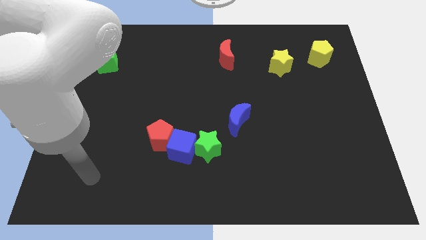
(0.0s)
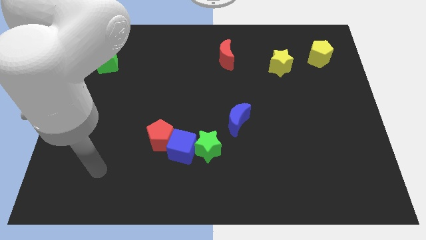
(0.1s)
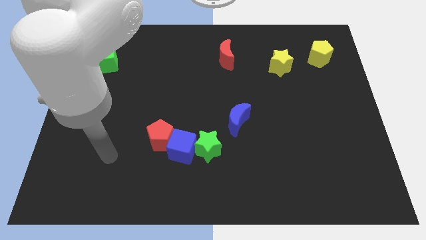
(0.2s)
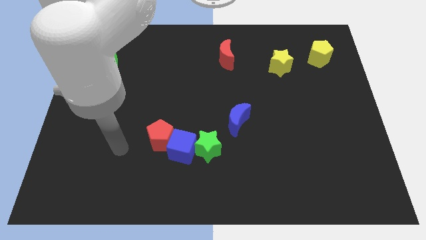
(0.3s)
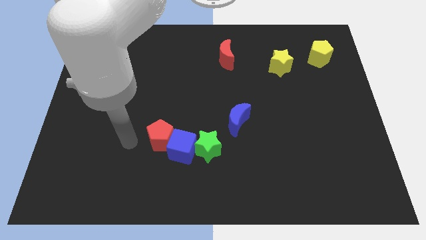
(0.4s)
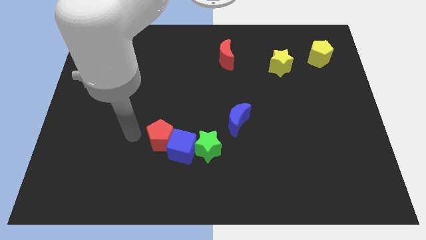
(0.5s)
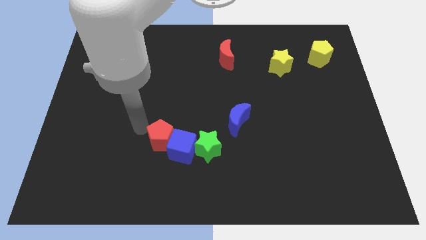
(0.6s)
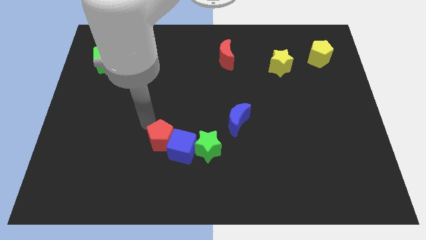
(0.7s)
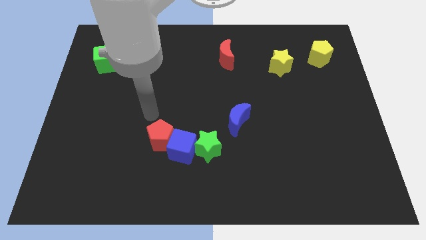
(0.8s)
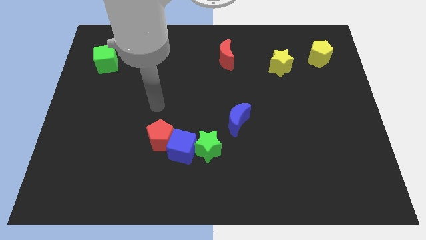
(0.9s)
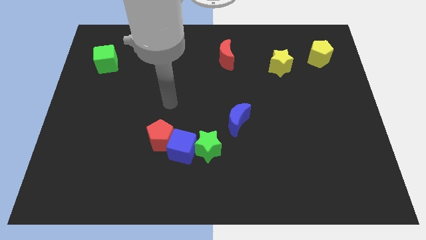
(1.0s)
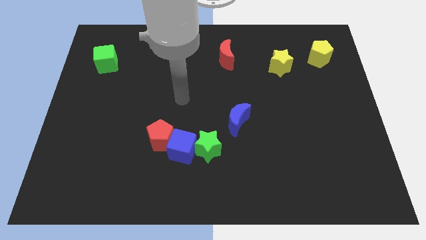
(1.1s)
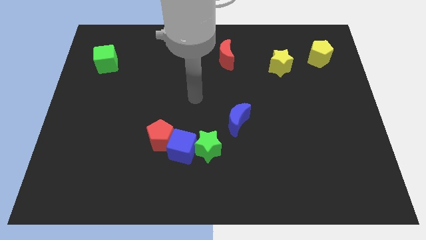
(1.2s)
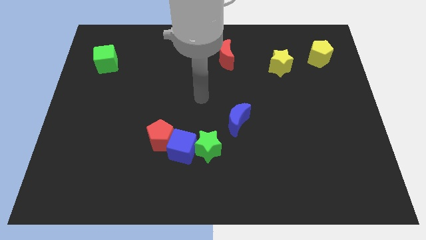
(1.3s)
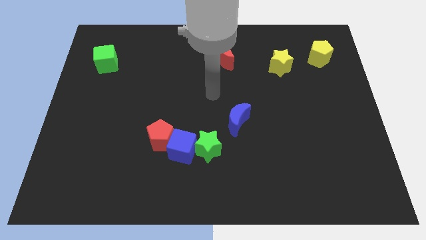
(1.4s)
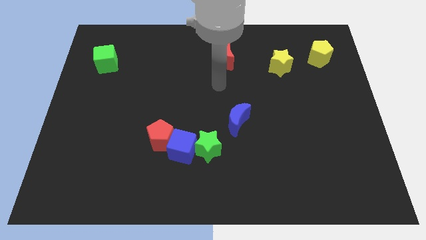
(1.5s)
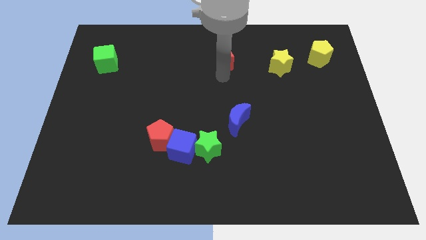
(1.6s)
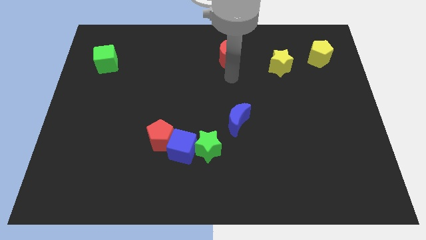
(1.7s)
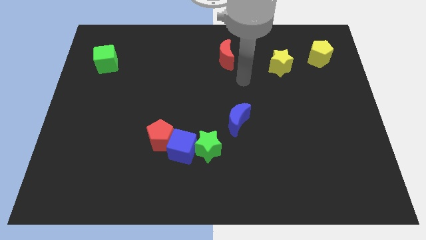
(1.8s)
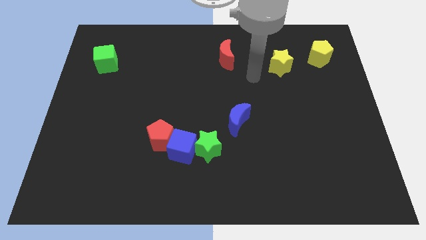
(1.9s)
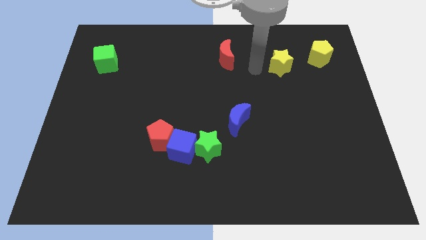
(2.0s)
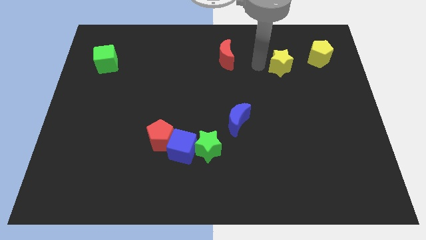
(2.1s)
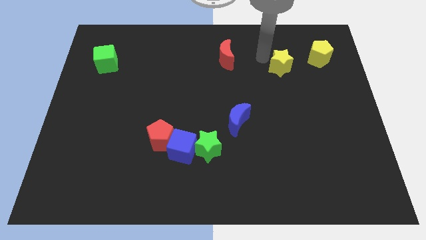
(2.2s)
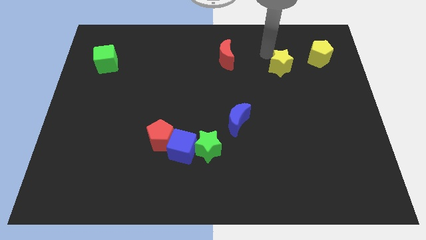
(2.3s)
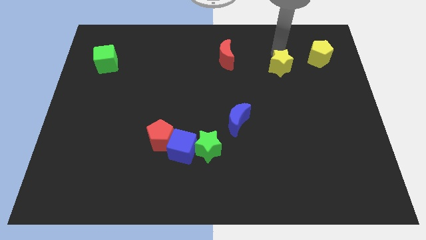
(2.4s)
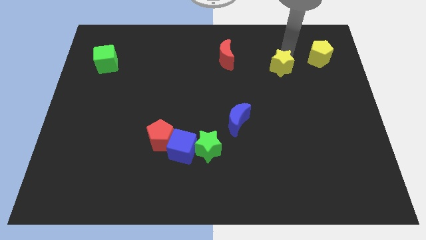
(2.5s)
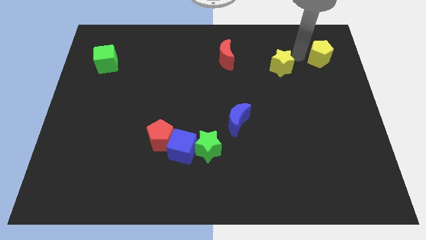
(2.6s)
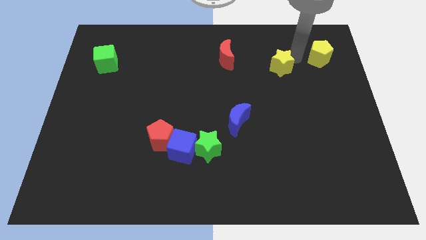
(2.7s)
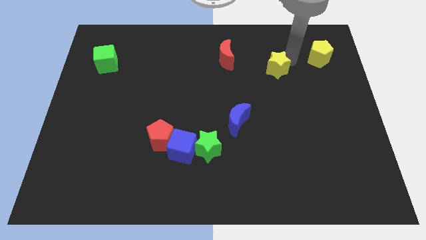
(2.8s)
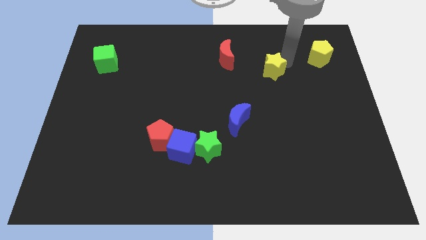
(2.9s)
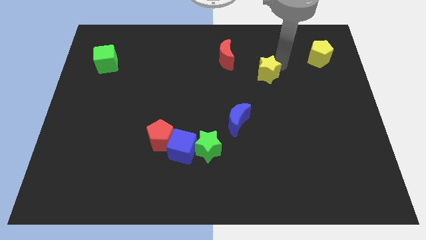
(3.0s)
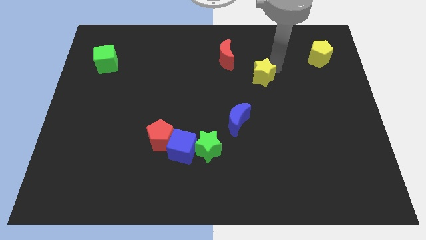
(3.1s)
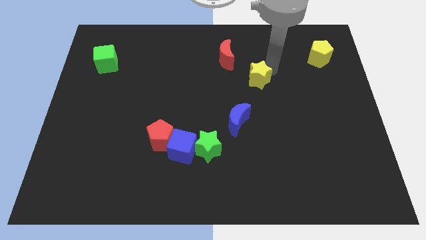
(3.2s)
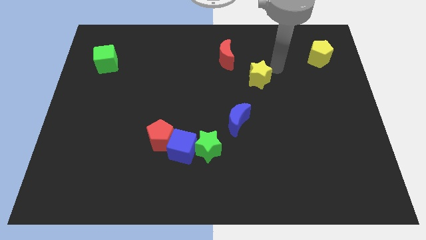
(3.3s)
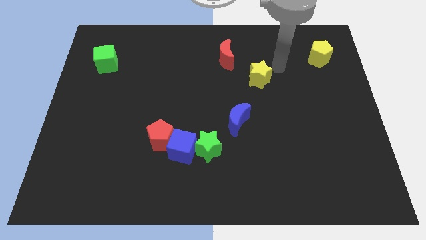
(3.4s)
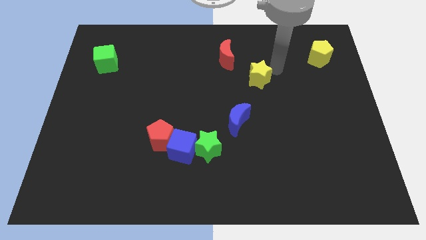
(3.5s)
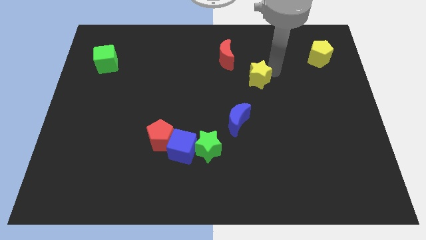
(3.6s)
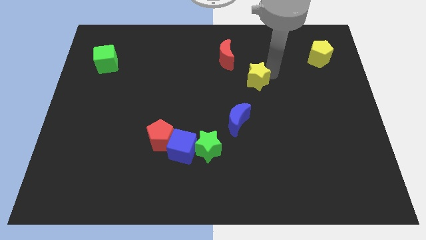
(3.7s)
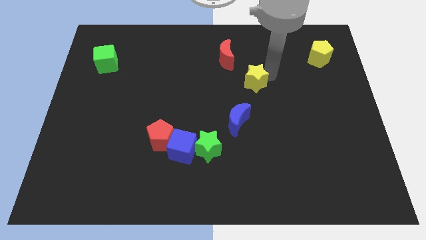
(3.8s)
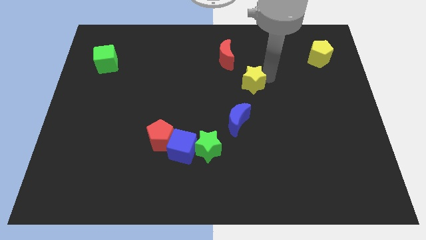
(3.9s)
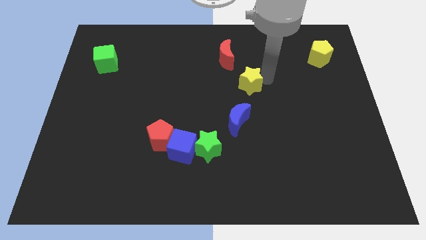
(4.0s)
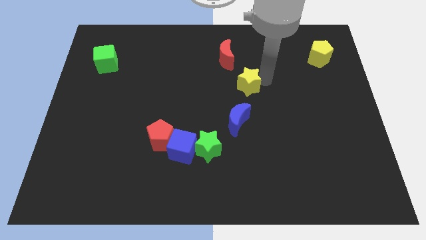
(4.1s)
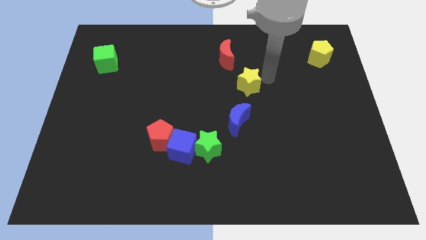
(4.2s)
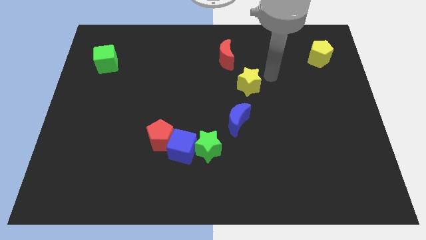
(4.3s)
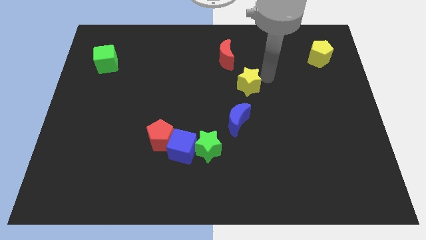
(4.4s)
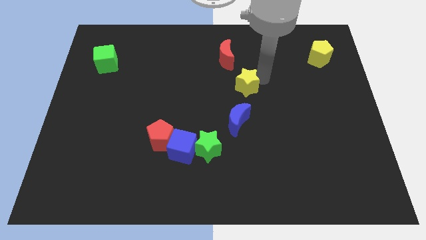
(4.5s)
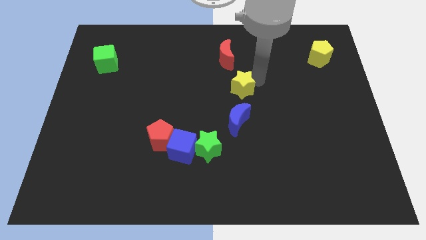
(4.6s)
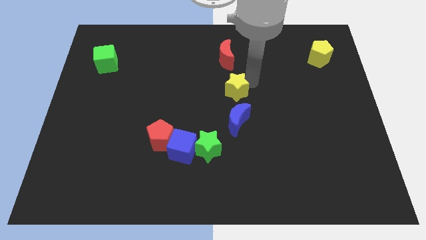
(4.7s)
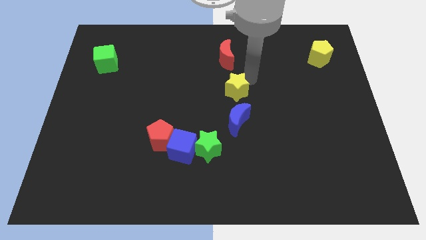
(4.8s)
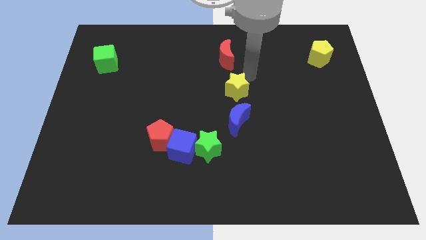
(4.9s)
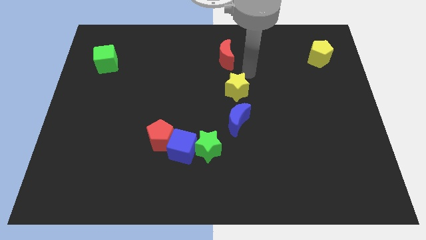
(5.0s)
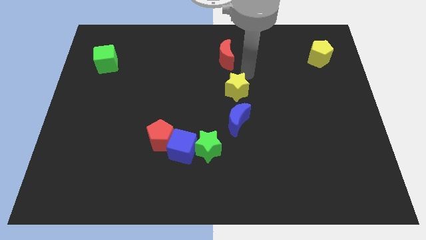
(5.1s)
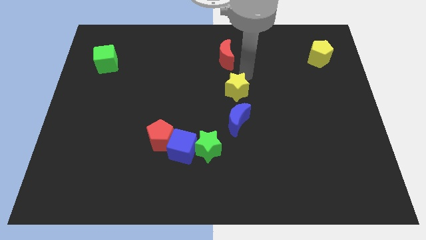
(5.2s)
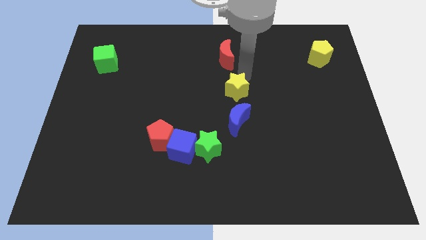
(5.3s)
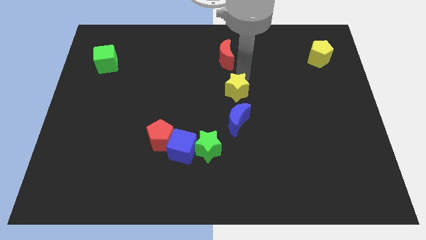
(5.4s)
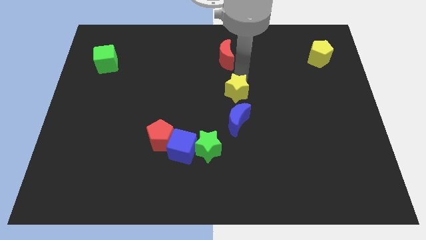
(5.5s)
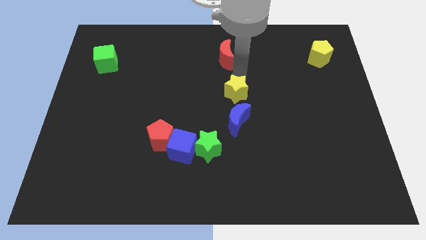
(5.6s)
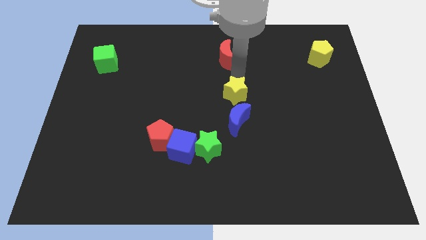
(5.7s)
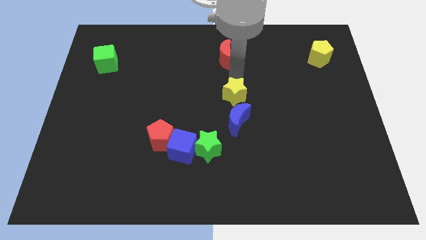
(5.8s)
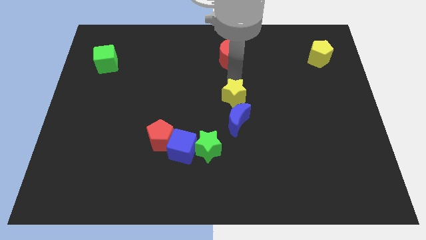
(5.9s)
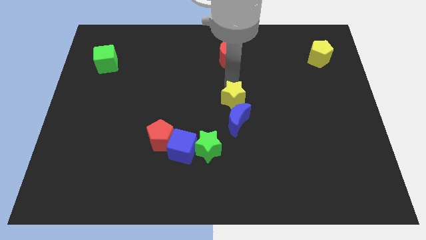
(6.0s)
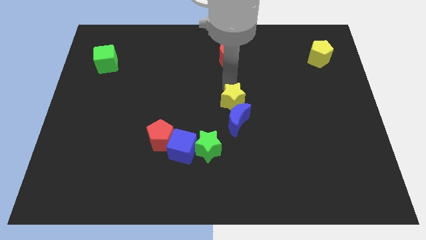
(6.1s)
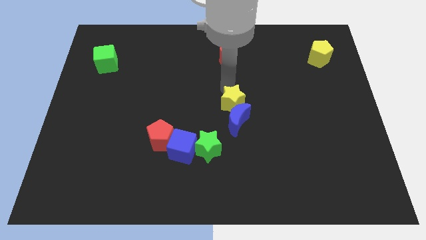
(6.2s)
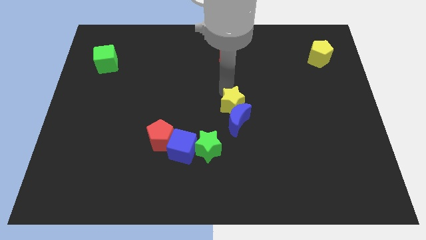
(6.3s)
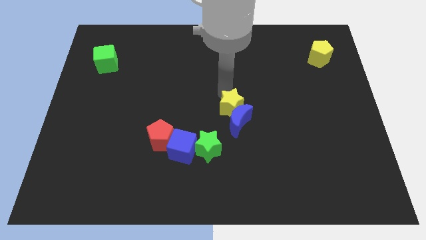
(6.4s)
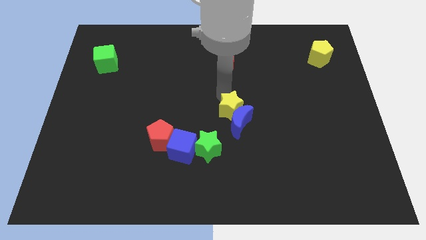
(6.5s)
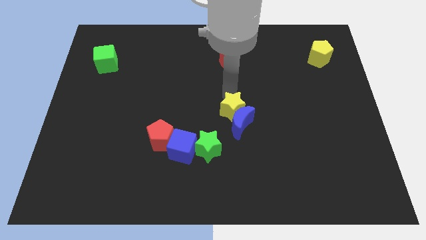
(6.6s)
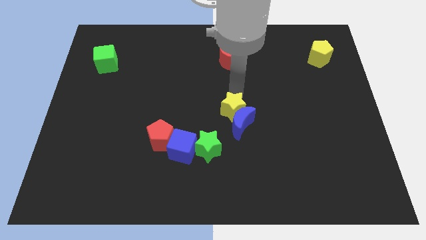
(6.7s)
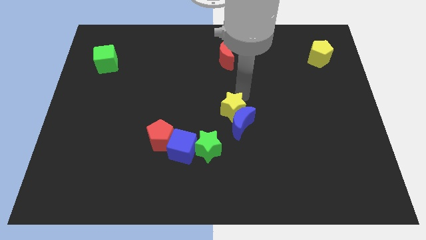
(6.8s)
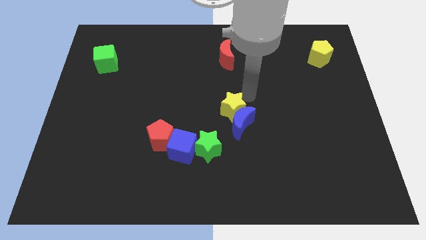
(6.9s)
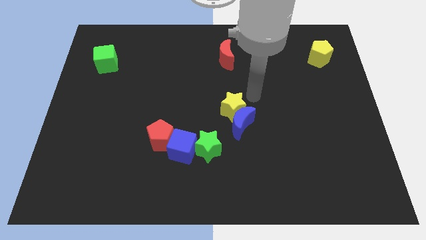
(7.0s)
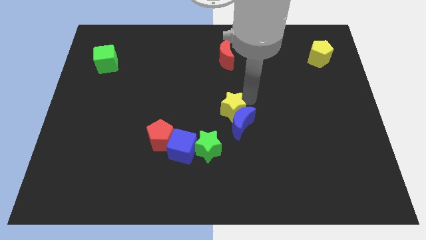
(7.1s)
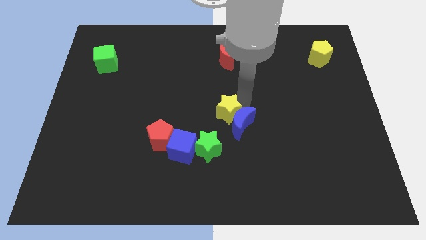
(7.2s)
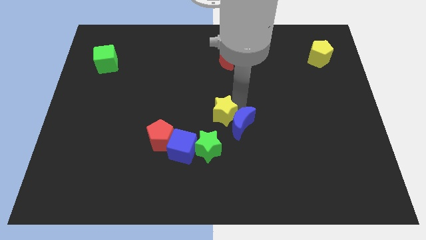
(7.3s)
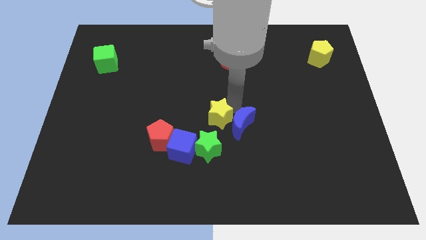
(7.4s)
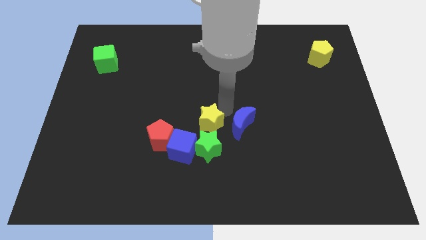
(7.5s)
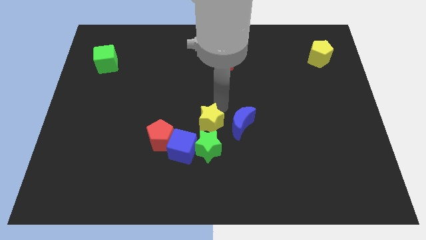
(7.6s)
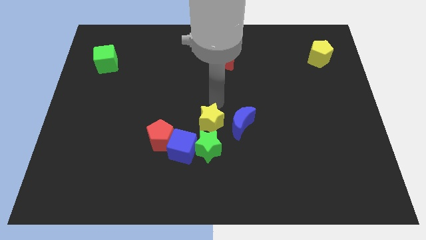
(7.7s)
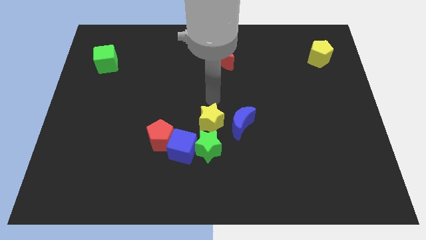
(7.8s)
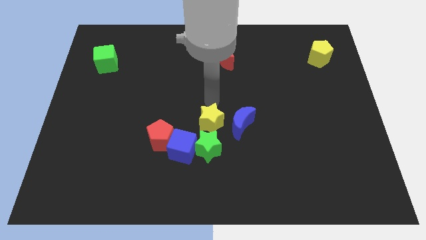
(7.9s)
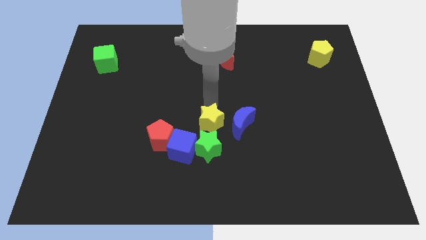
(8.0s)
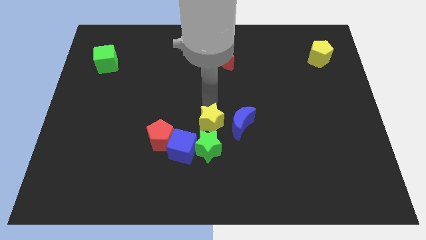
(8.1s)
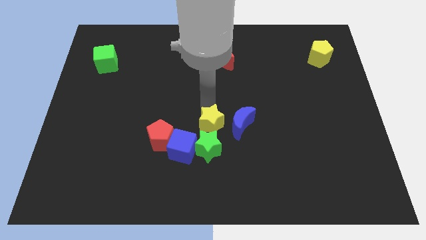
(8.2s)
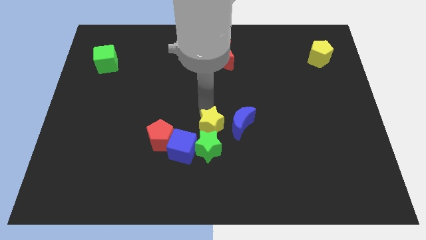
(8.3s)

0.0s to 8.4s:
slide the yellow star to the green star
